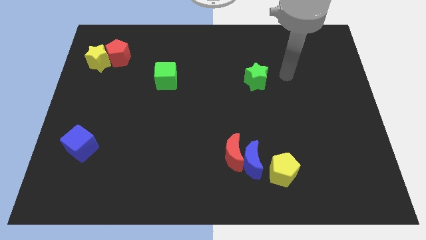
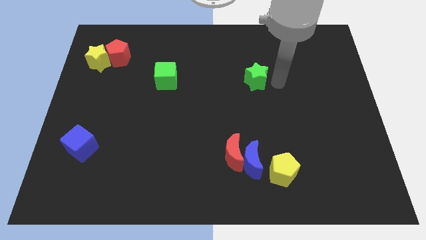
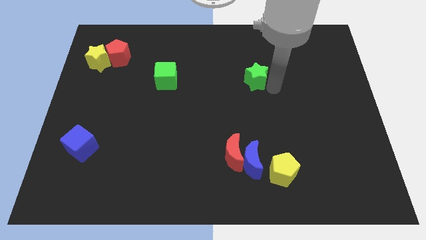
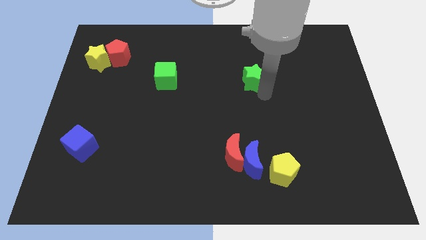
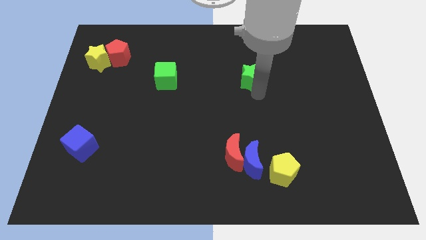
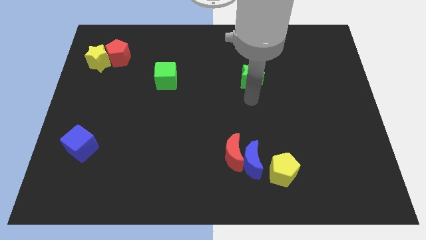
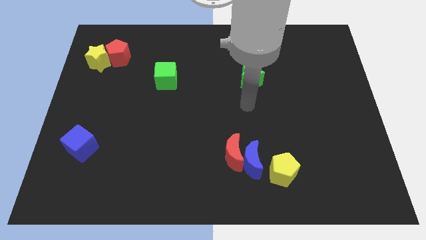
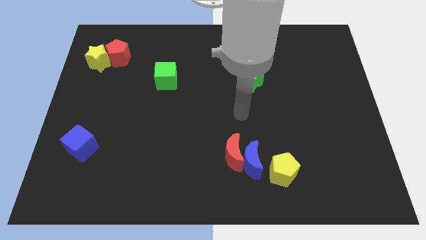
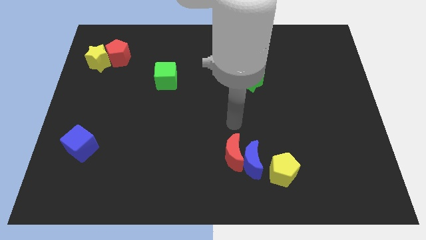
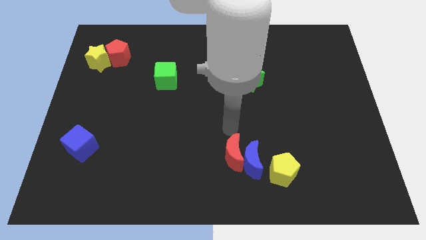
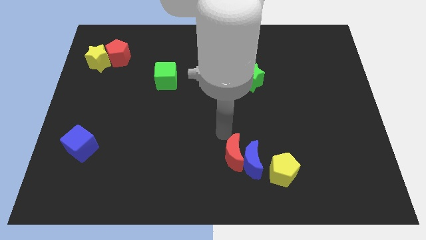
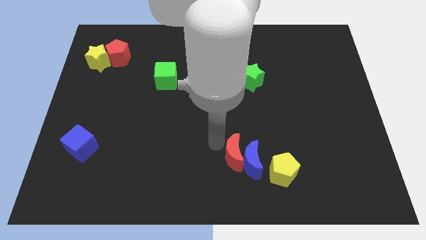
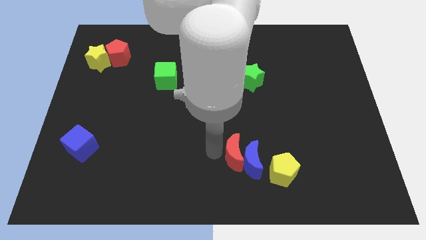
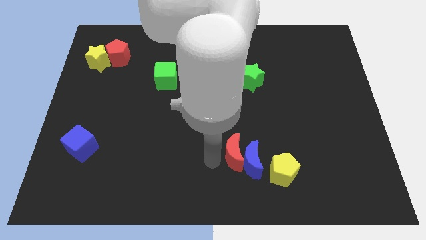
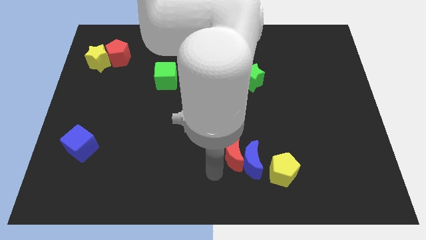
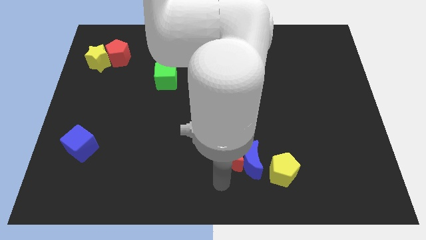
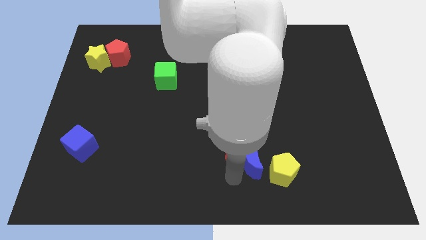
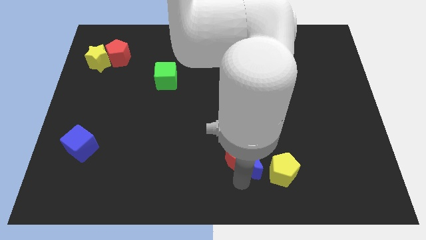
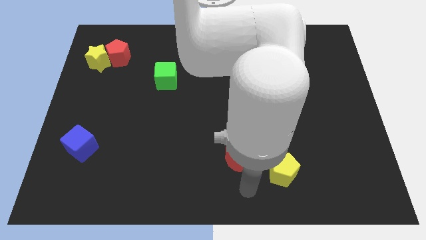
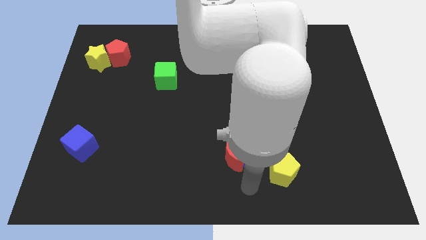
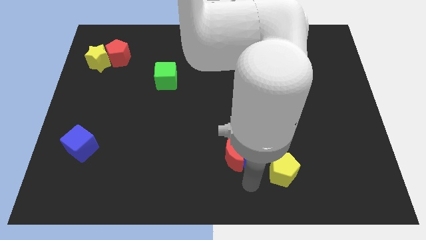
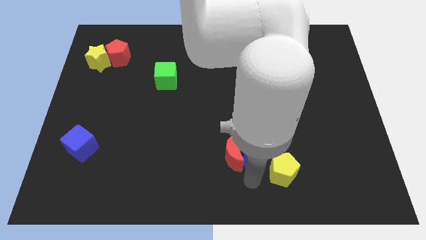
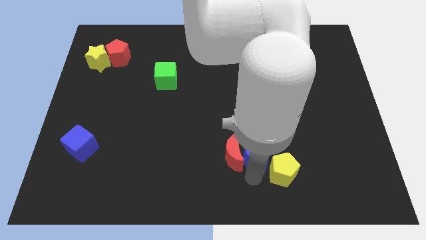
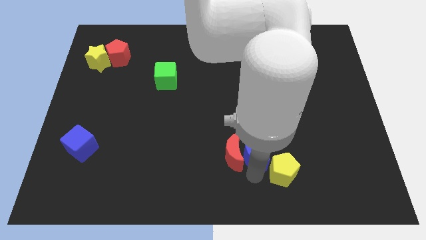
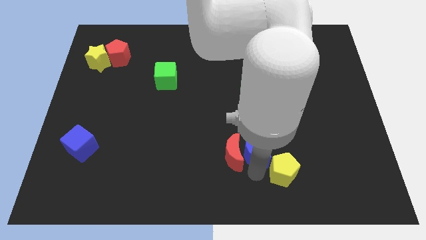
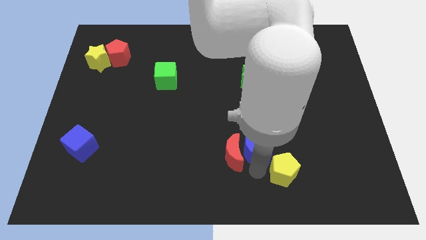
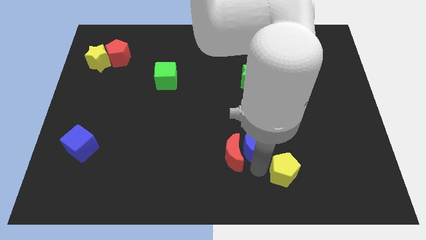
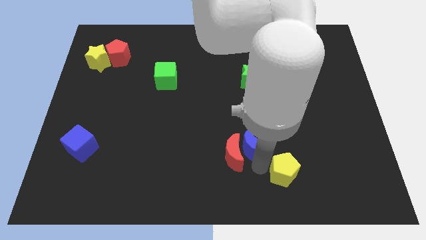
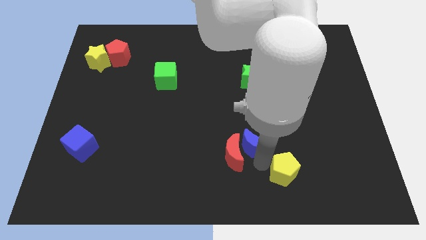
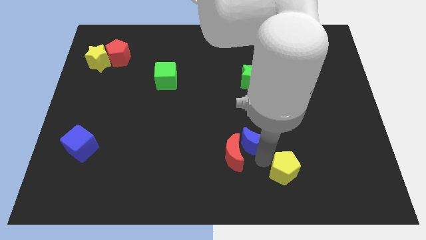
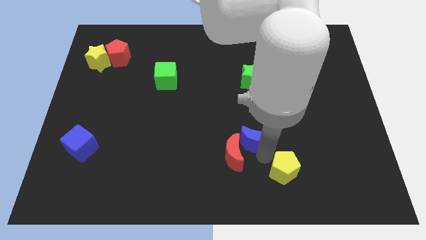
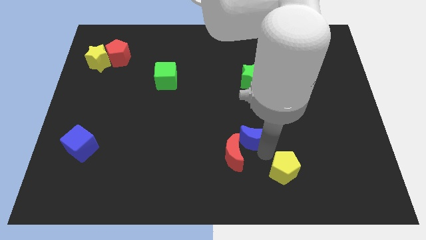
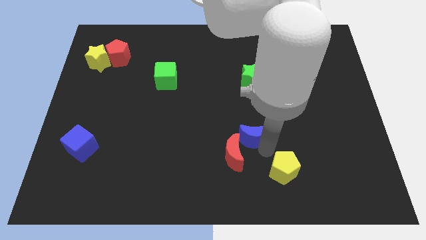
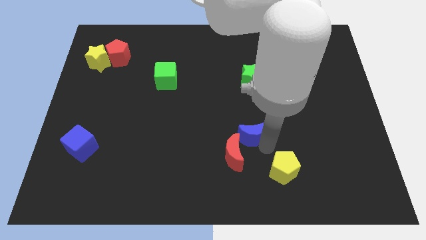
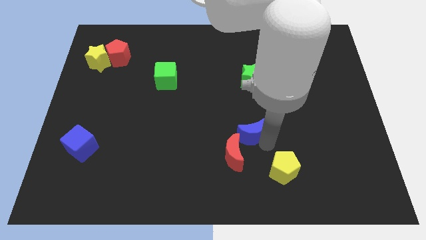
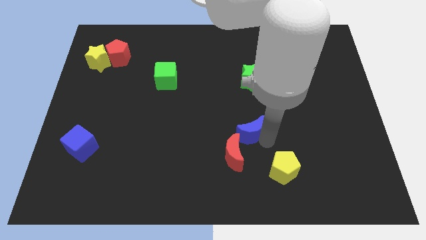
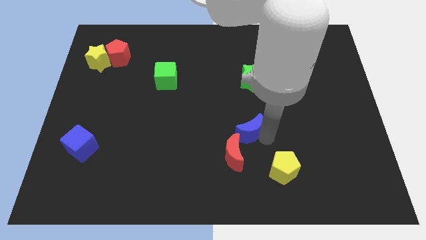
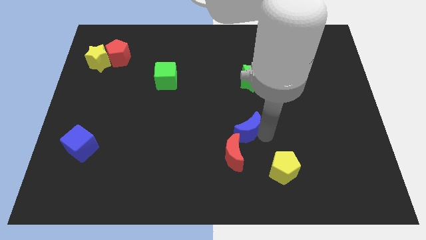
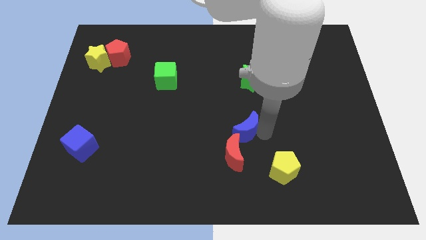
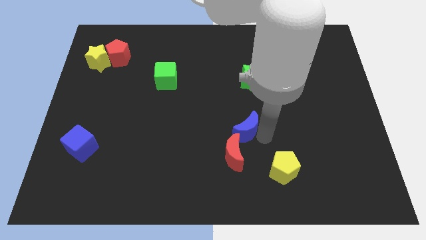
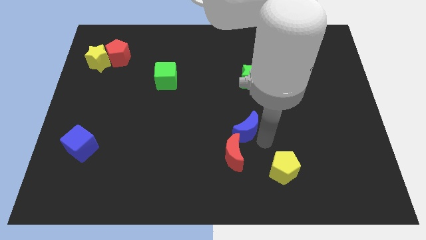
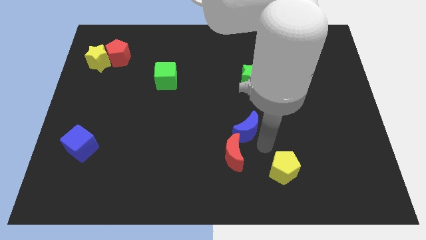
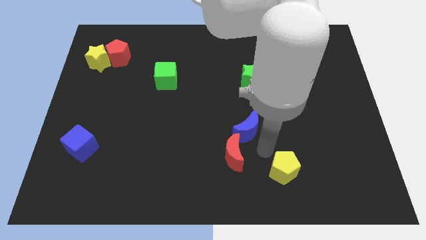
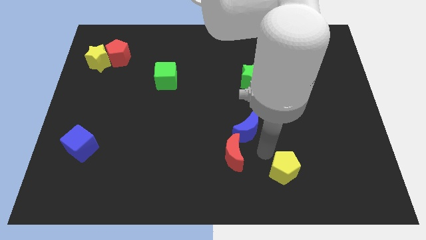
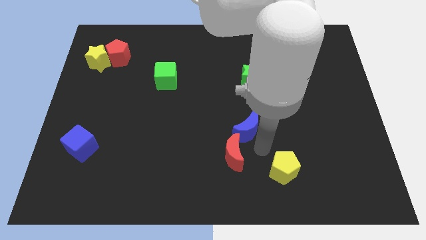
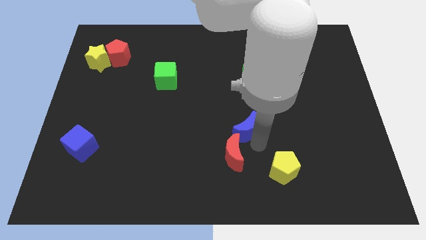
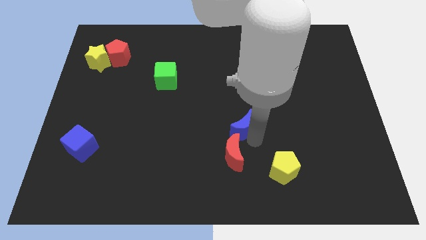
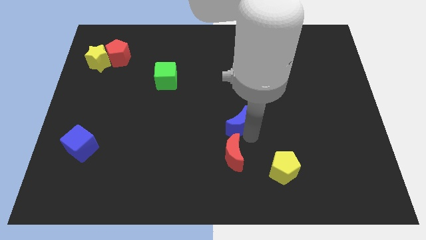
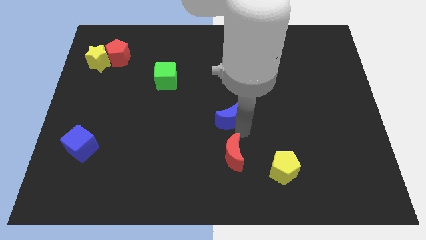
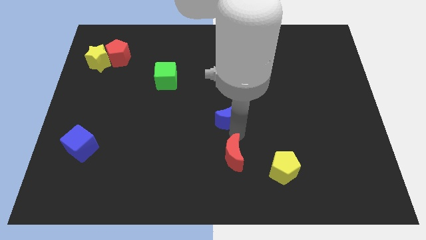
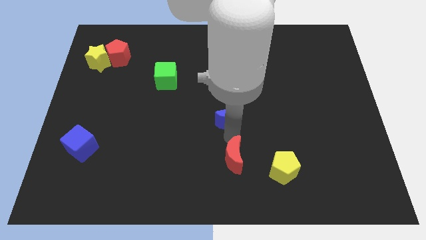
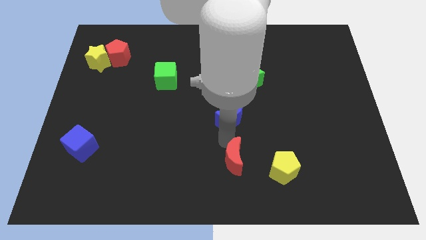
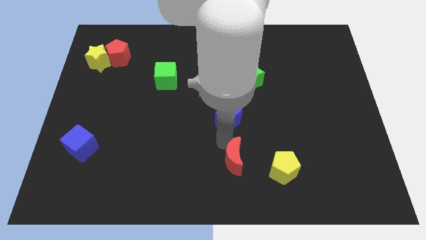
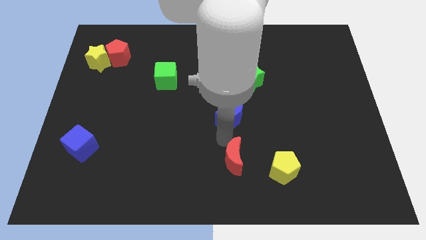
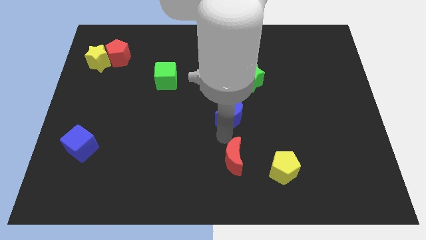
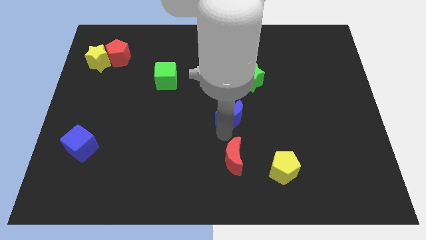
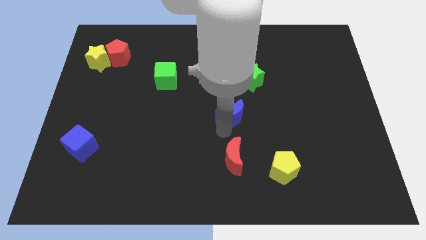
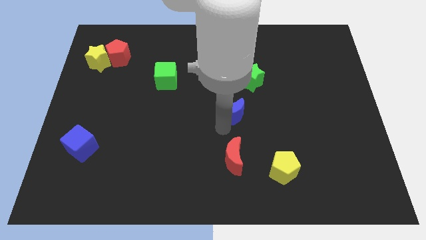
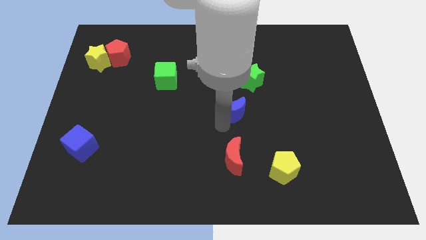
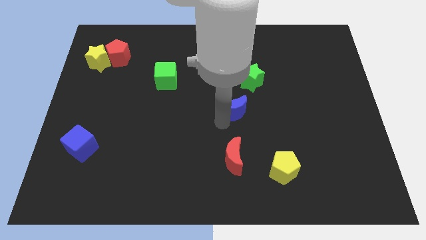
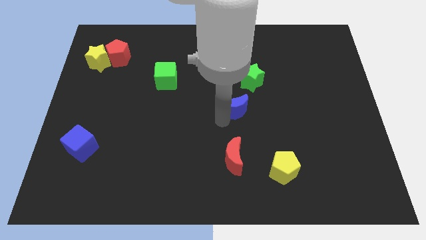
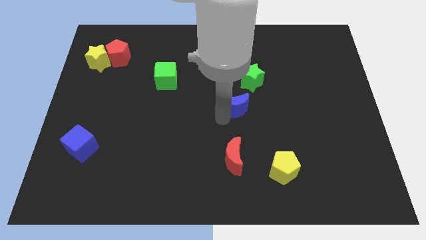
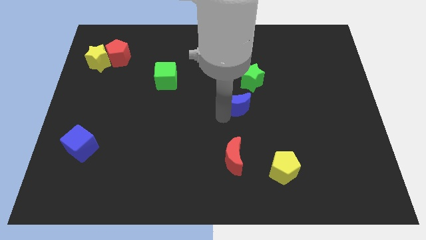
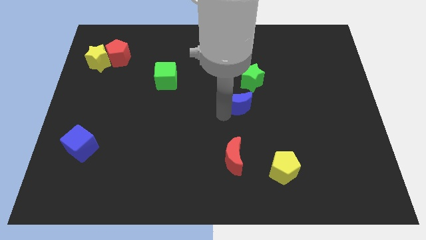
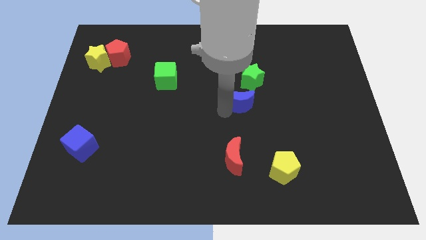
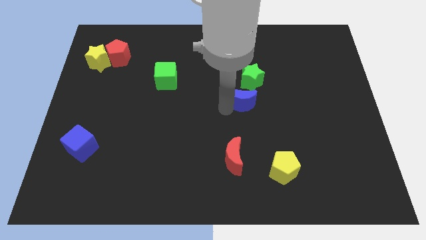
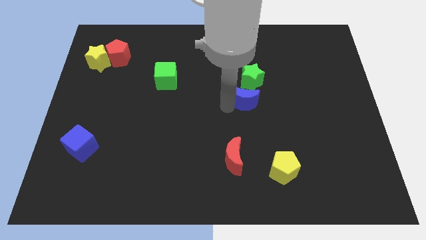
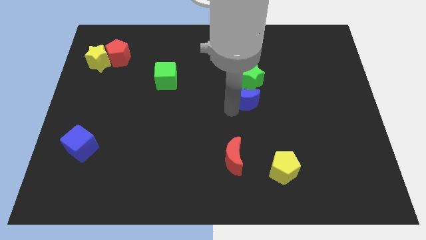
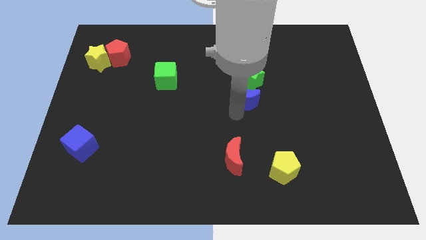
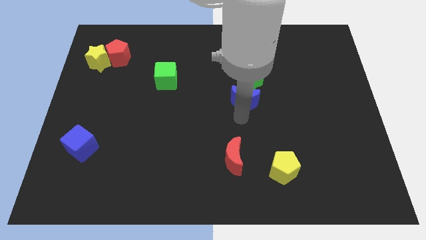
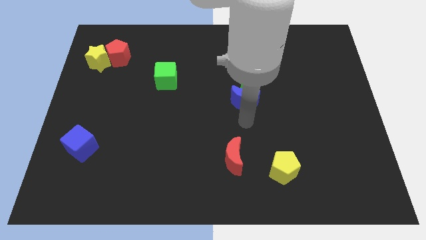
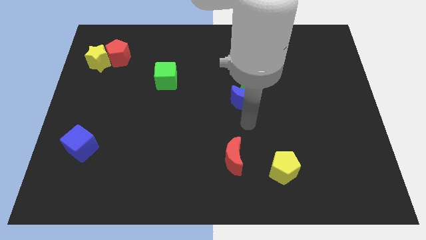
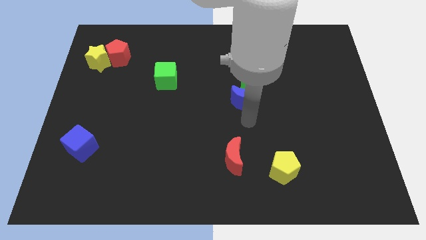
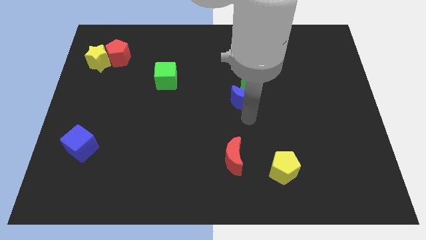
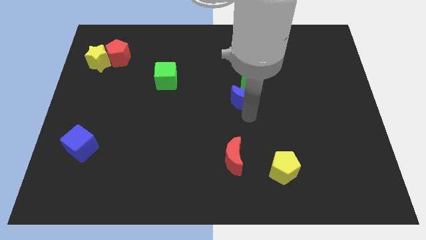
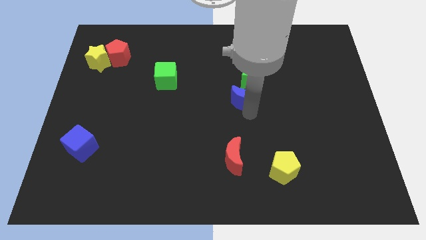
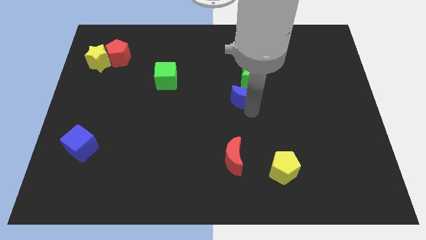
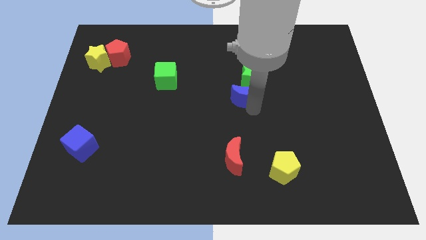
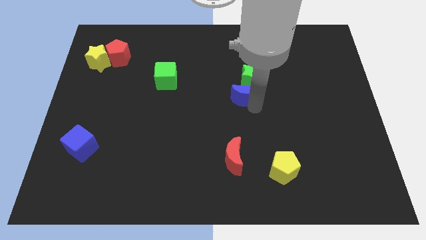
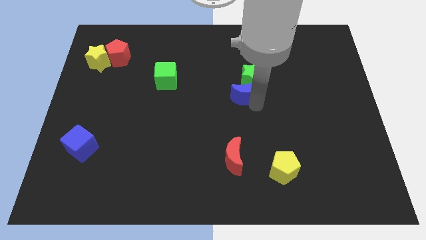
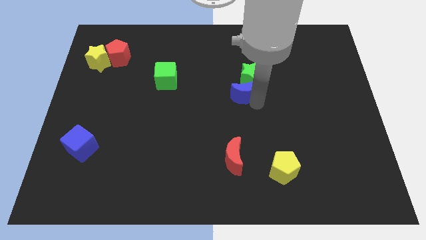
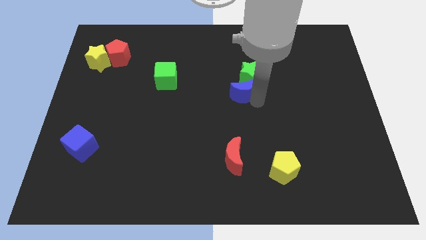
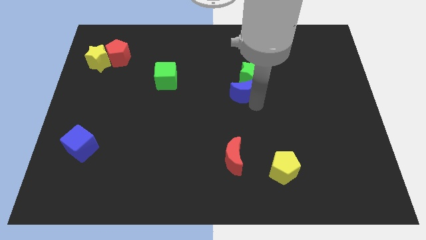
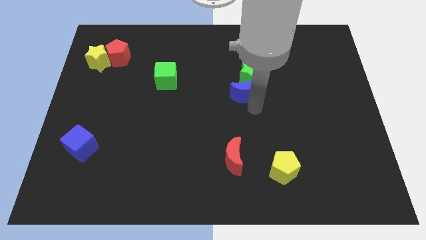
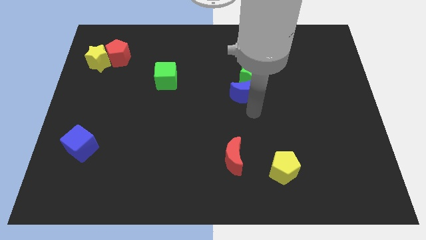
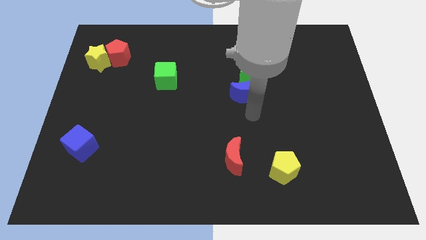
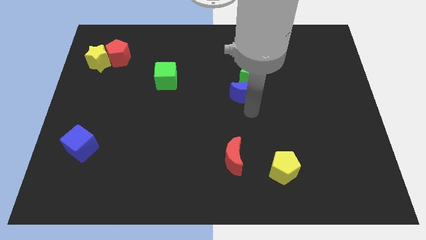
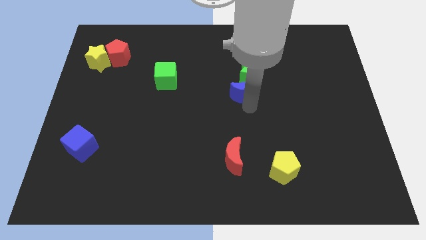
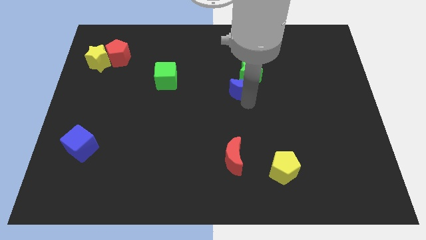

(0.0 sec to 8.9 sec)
push the blue moon upwards
